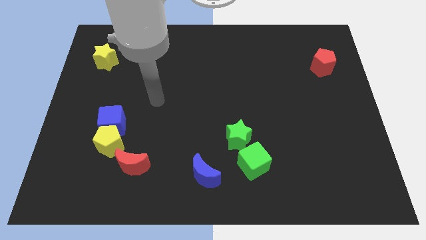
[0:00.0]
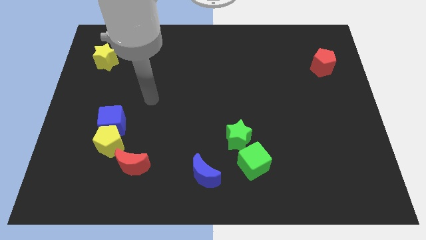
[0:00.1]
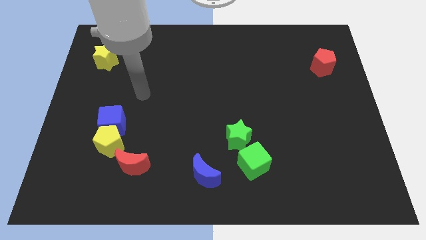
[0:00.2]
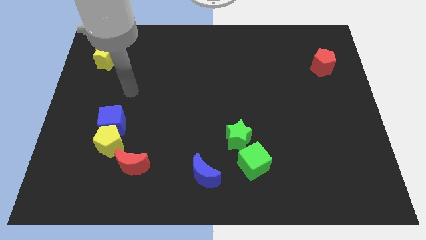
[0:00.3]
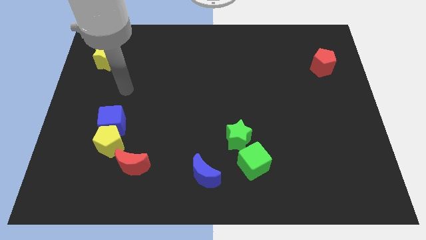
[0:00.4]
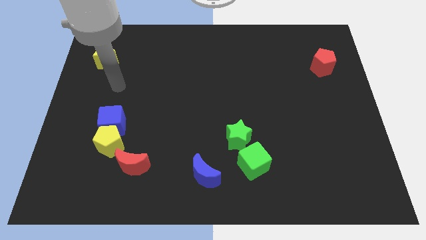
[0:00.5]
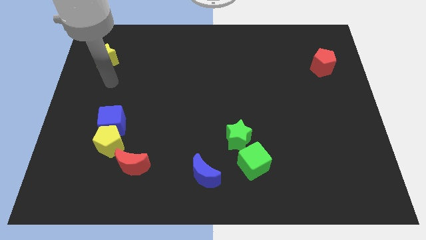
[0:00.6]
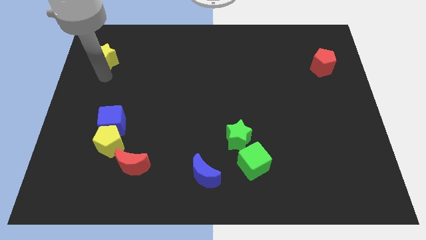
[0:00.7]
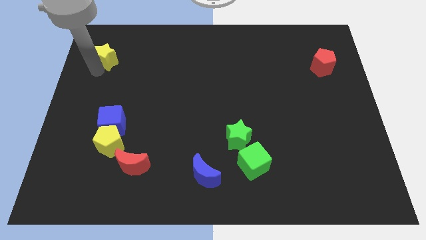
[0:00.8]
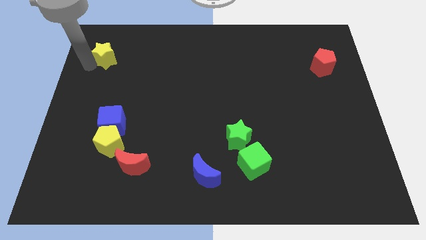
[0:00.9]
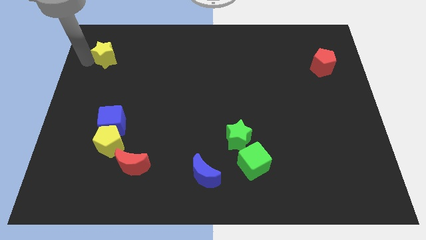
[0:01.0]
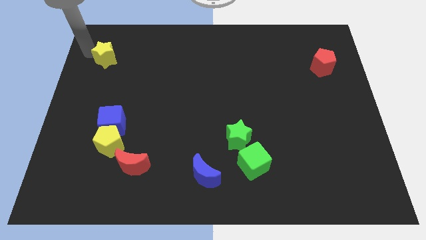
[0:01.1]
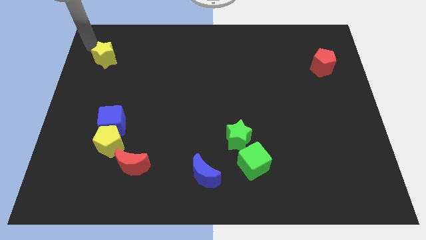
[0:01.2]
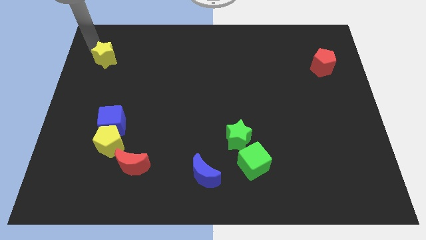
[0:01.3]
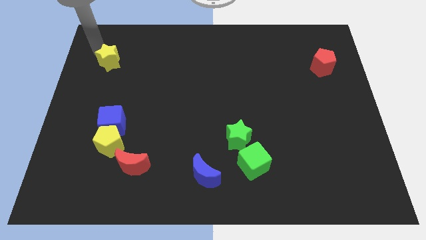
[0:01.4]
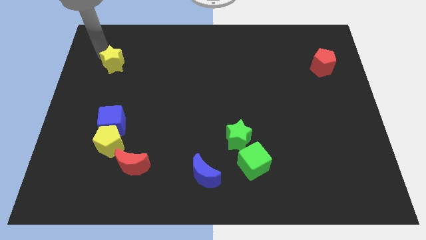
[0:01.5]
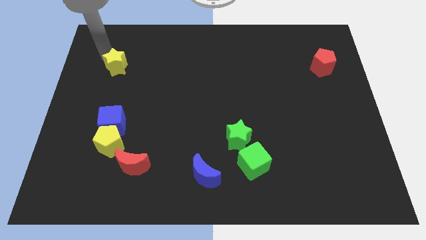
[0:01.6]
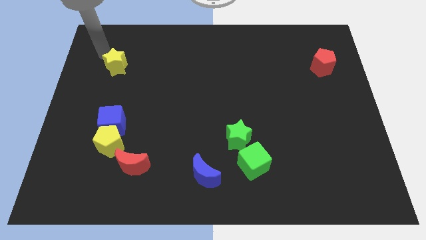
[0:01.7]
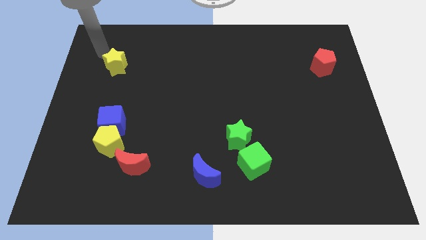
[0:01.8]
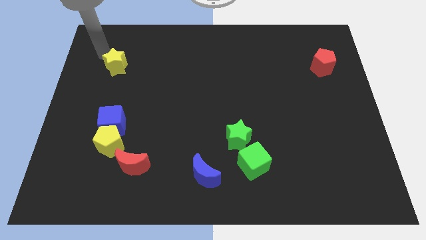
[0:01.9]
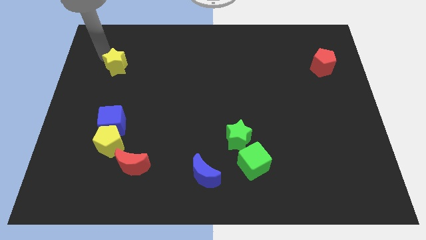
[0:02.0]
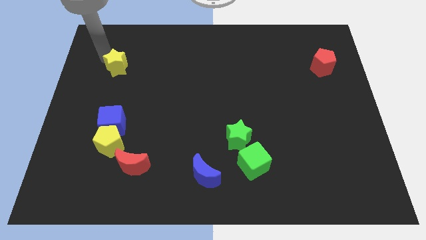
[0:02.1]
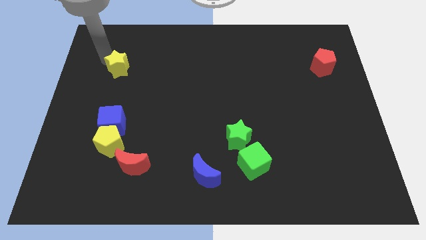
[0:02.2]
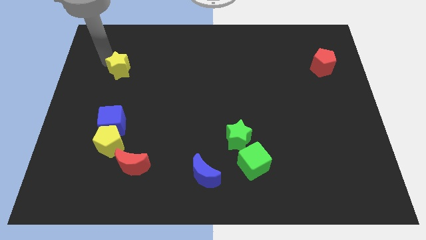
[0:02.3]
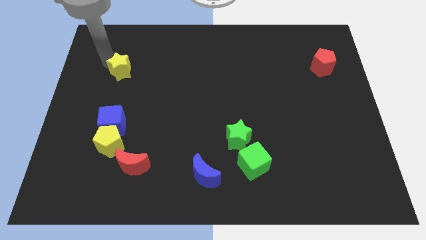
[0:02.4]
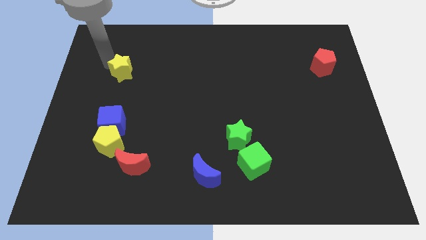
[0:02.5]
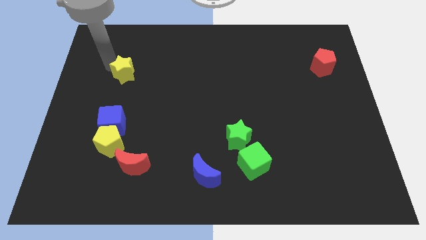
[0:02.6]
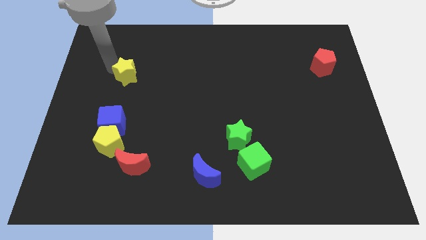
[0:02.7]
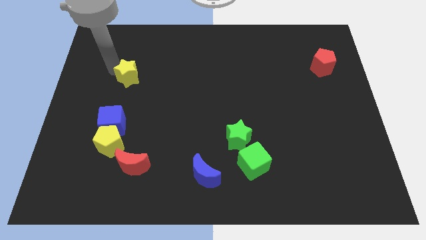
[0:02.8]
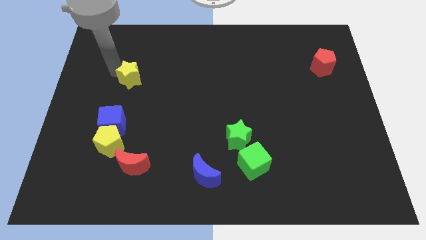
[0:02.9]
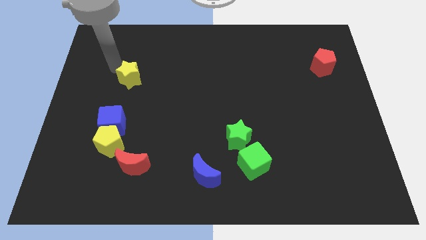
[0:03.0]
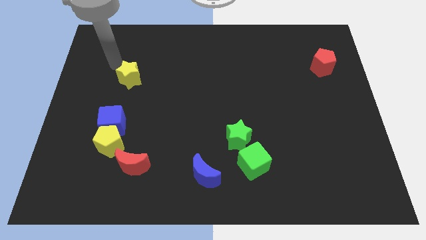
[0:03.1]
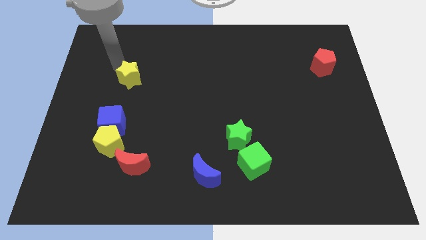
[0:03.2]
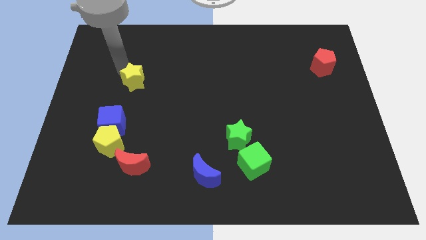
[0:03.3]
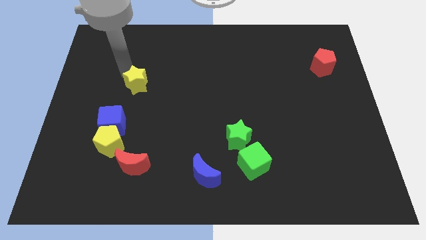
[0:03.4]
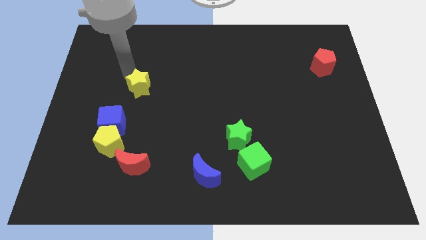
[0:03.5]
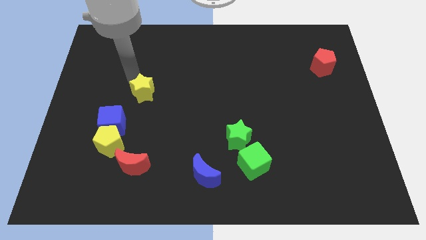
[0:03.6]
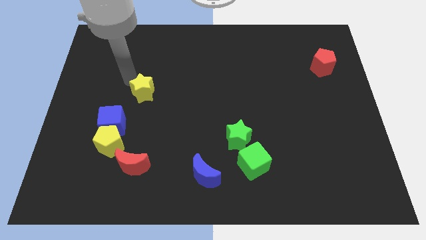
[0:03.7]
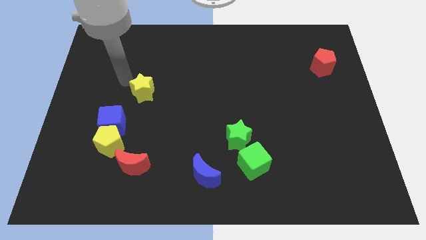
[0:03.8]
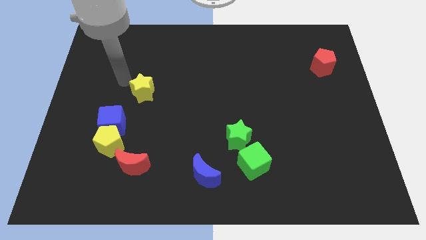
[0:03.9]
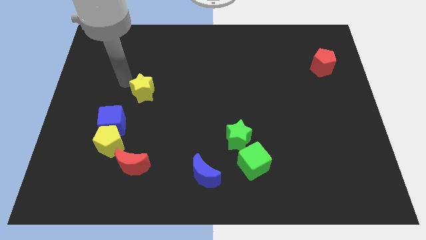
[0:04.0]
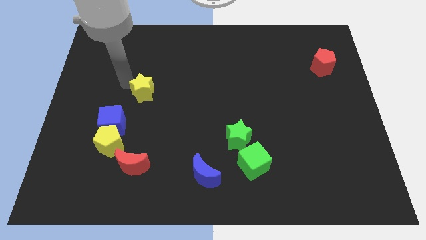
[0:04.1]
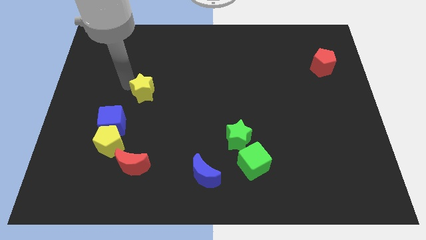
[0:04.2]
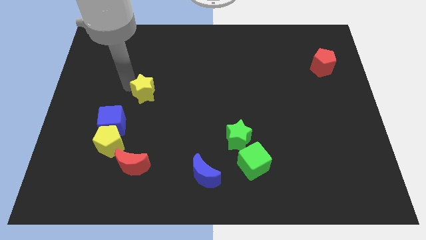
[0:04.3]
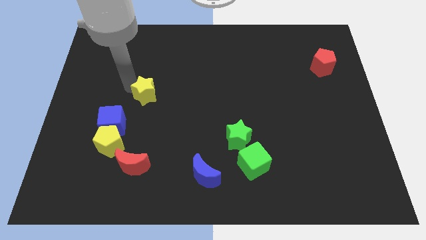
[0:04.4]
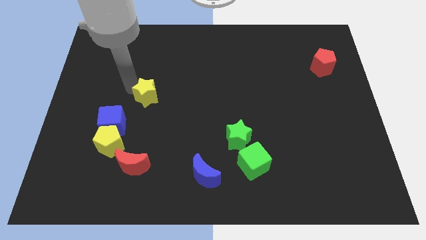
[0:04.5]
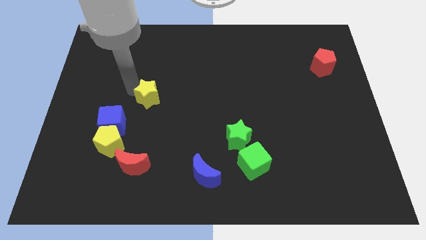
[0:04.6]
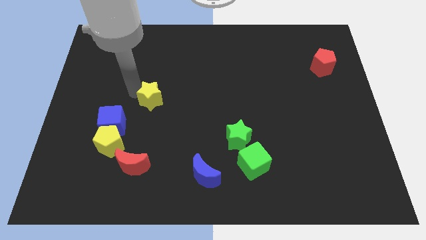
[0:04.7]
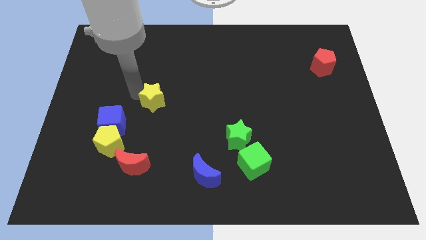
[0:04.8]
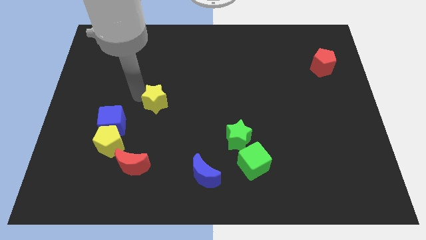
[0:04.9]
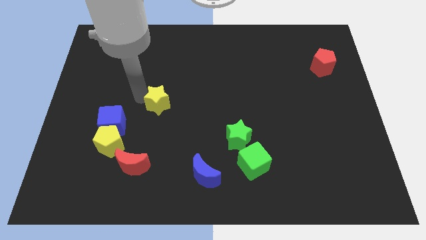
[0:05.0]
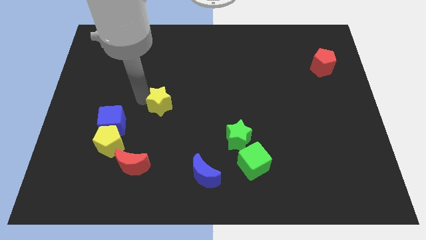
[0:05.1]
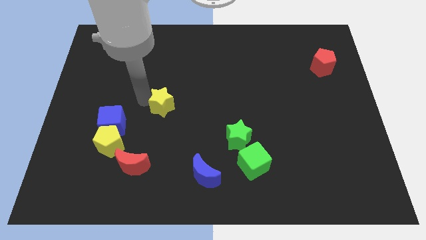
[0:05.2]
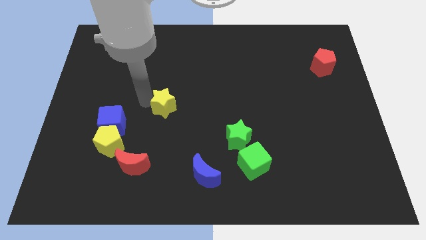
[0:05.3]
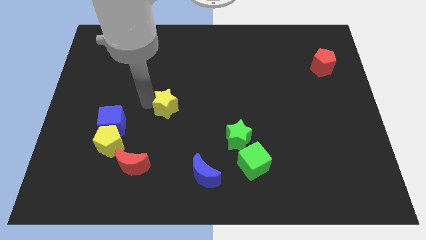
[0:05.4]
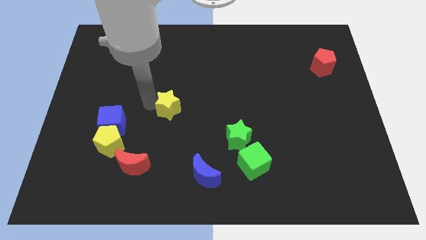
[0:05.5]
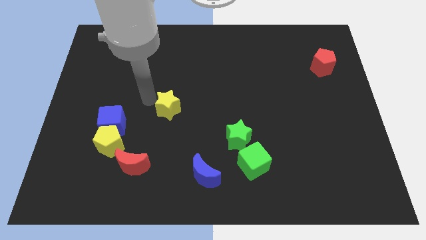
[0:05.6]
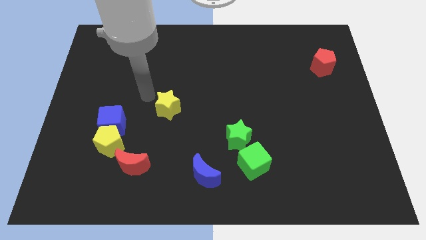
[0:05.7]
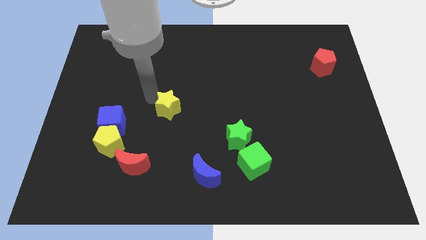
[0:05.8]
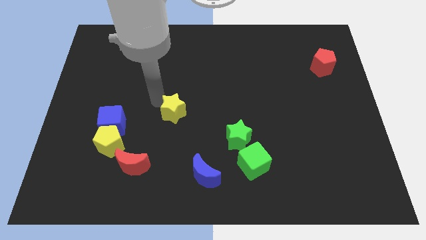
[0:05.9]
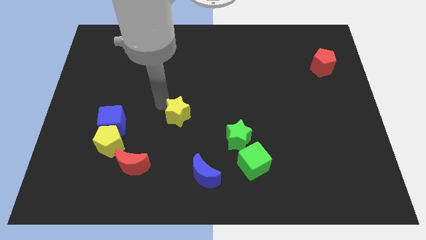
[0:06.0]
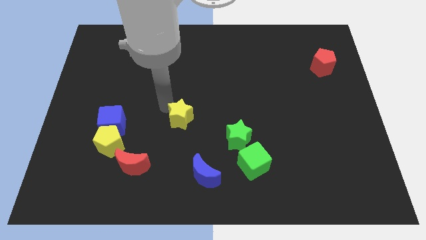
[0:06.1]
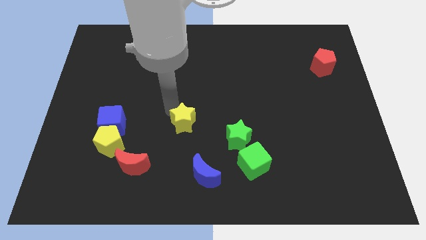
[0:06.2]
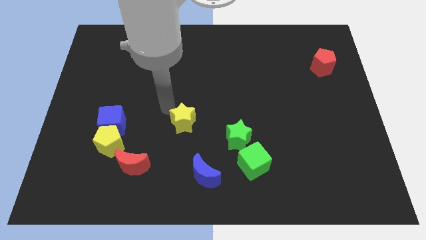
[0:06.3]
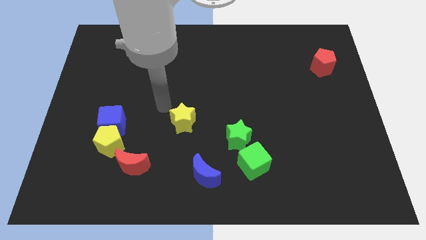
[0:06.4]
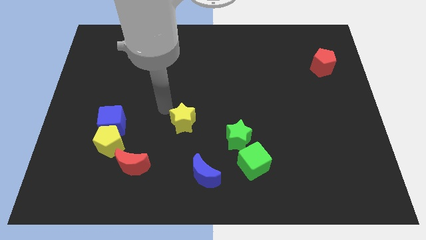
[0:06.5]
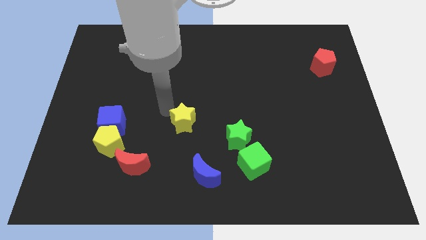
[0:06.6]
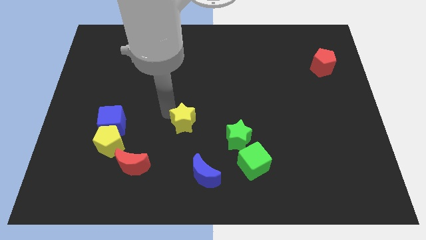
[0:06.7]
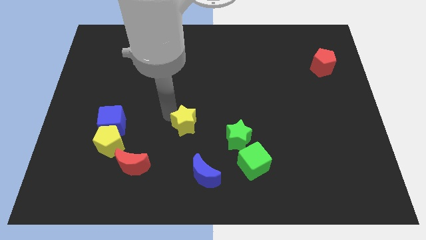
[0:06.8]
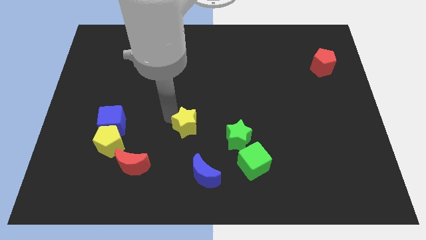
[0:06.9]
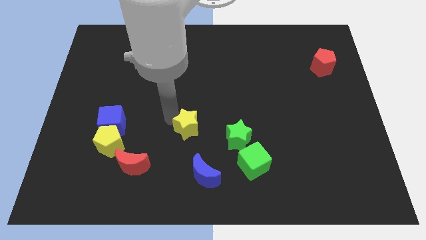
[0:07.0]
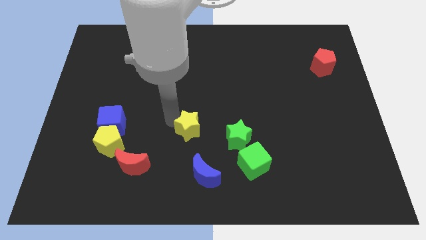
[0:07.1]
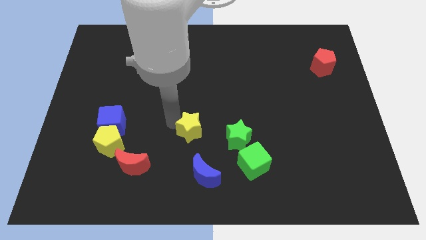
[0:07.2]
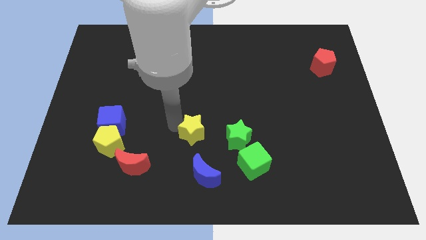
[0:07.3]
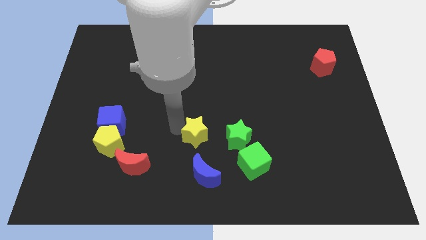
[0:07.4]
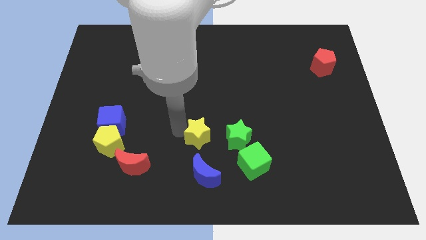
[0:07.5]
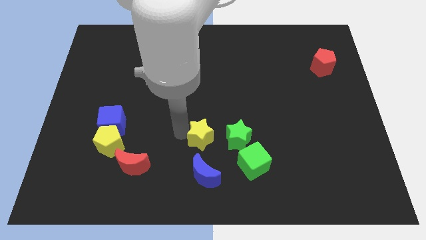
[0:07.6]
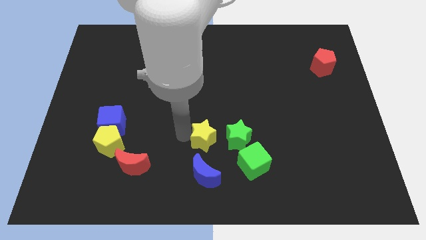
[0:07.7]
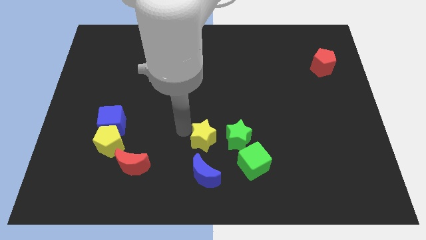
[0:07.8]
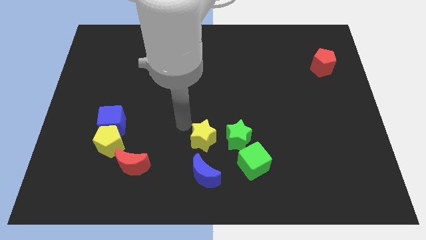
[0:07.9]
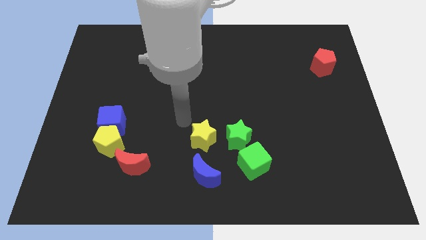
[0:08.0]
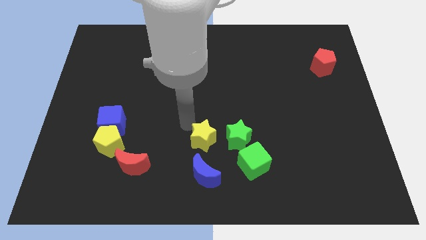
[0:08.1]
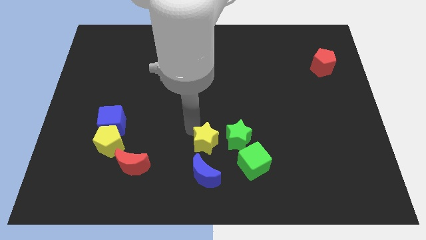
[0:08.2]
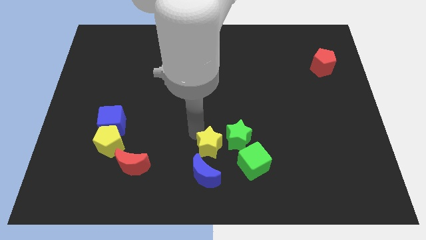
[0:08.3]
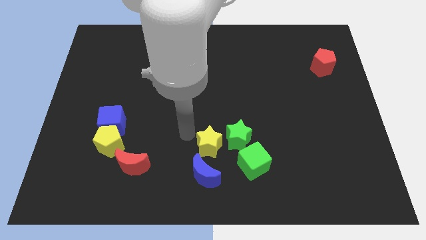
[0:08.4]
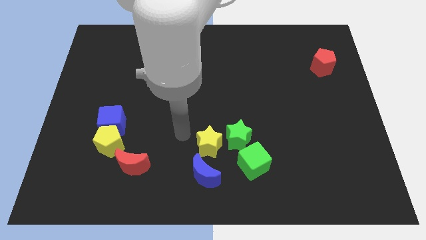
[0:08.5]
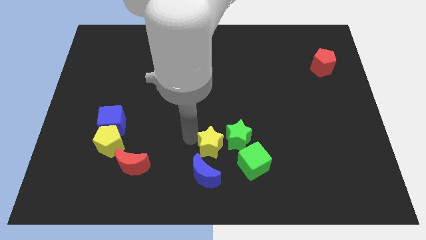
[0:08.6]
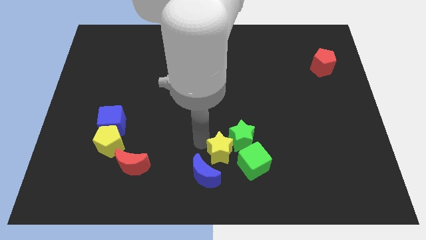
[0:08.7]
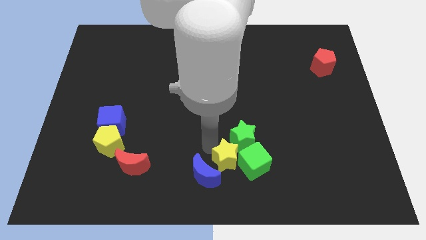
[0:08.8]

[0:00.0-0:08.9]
put the yellow star next to the green cube
